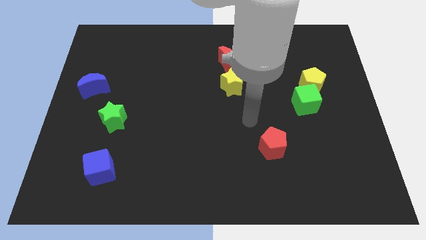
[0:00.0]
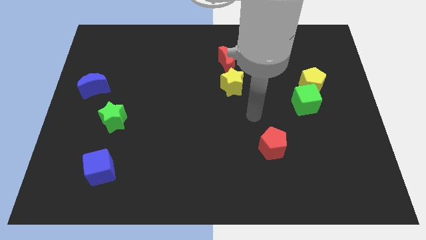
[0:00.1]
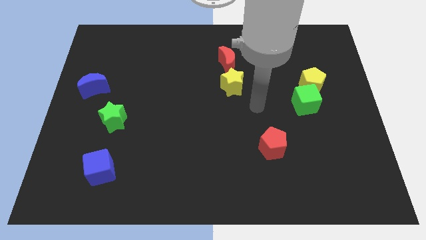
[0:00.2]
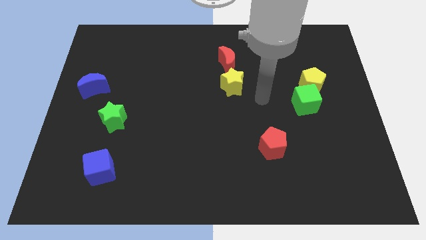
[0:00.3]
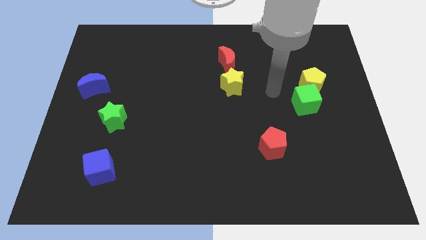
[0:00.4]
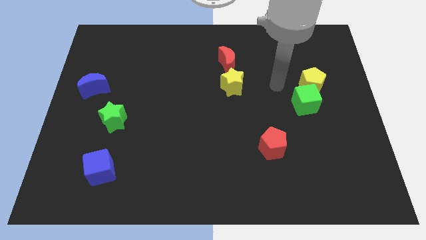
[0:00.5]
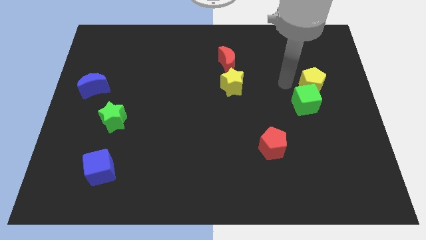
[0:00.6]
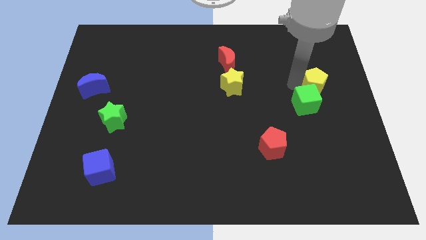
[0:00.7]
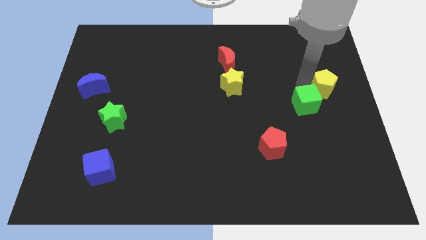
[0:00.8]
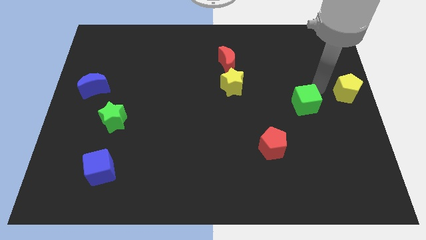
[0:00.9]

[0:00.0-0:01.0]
move the green cube away from the yellow pentagon

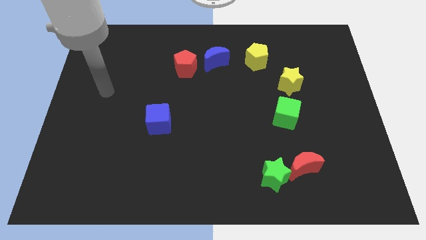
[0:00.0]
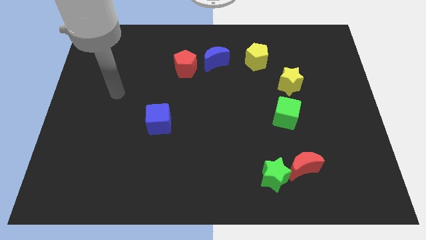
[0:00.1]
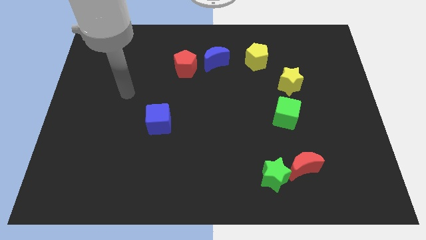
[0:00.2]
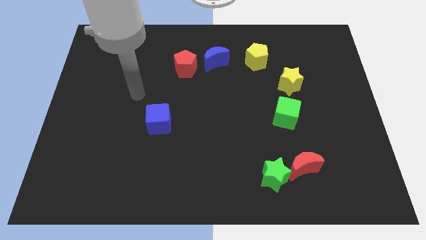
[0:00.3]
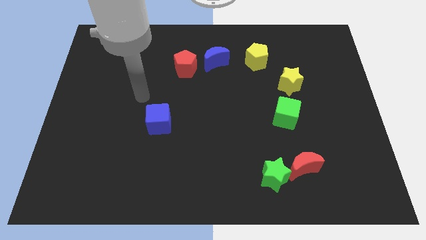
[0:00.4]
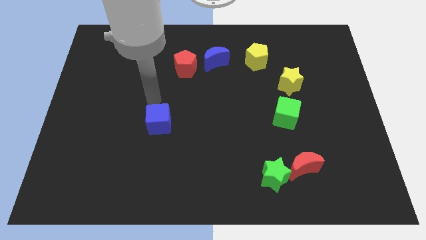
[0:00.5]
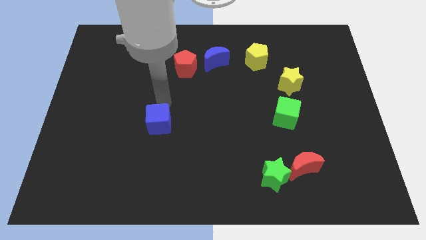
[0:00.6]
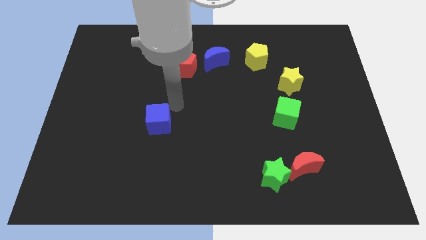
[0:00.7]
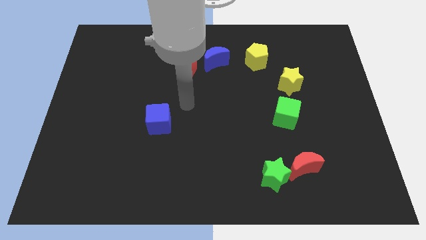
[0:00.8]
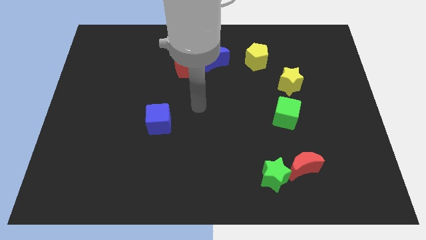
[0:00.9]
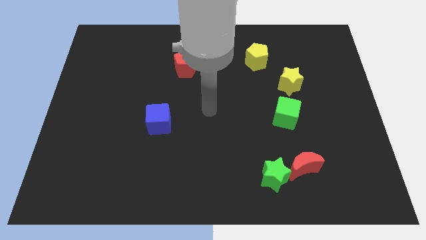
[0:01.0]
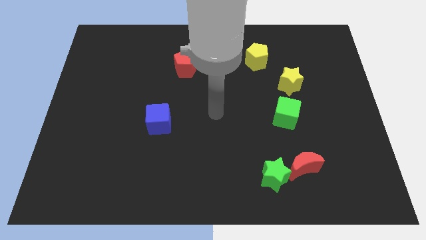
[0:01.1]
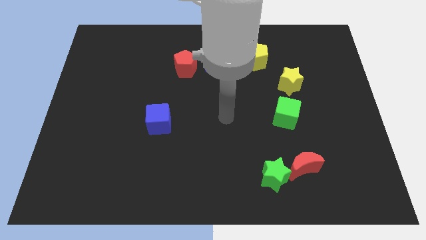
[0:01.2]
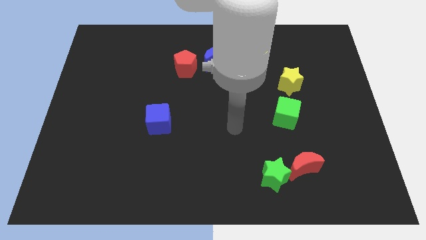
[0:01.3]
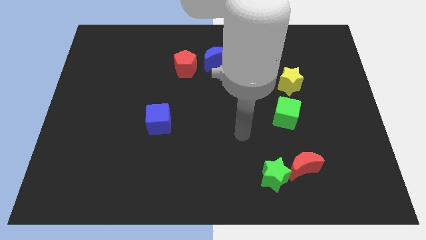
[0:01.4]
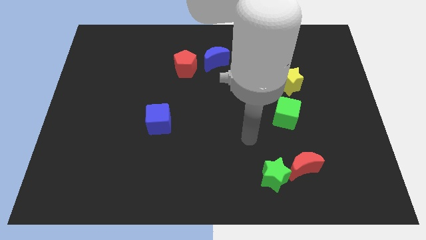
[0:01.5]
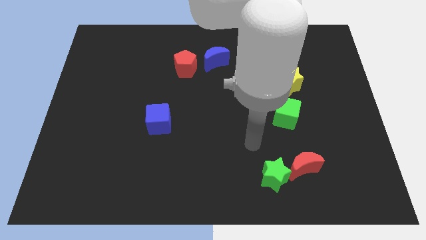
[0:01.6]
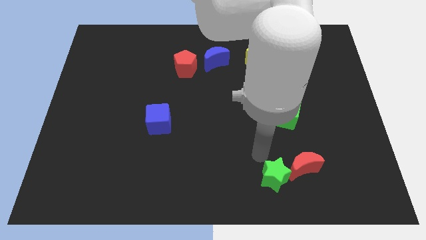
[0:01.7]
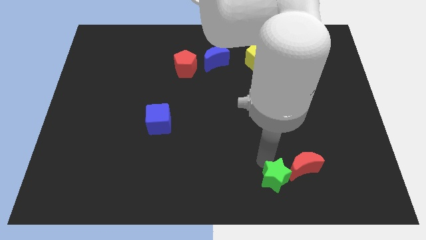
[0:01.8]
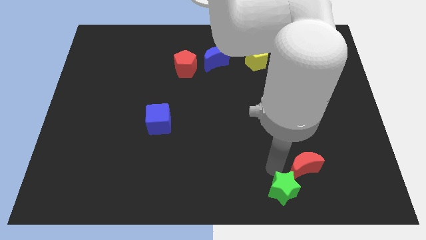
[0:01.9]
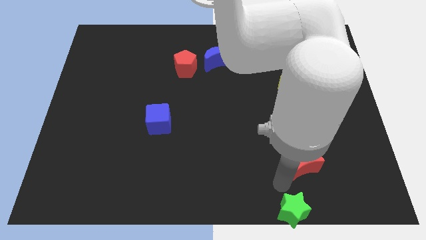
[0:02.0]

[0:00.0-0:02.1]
move the red moon away from the green star

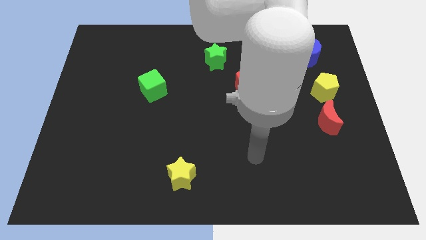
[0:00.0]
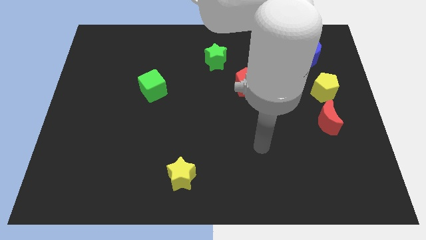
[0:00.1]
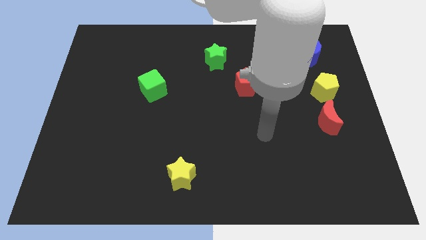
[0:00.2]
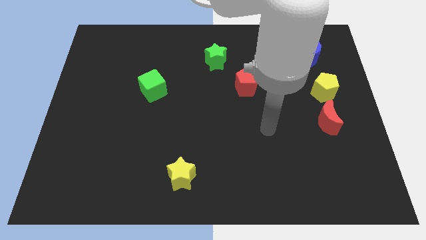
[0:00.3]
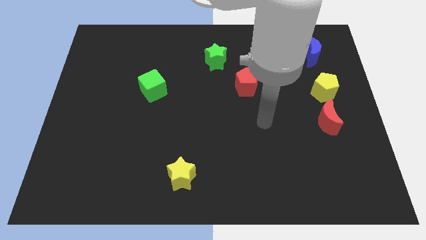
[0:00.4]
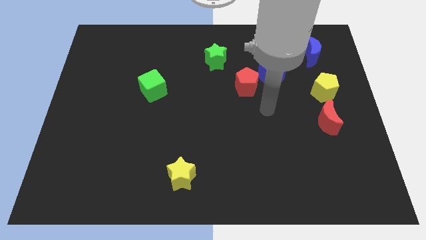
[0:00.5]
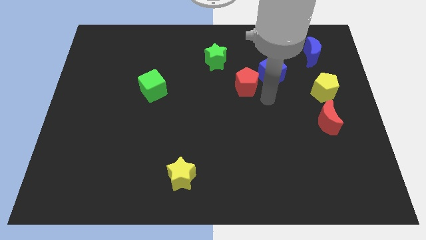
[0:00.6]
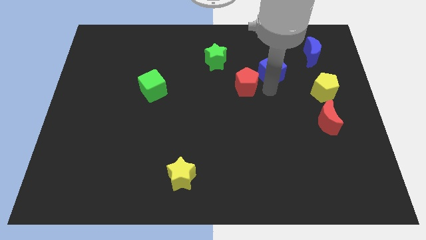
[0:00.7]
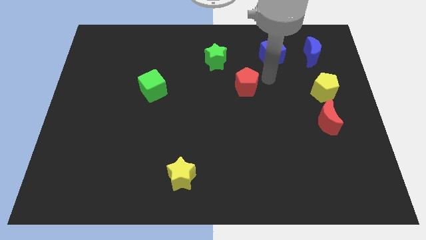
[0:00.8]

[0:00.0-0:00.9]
separate the red pentagon from the blue cube

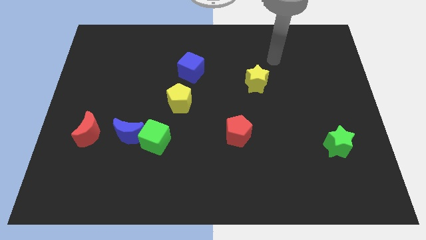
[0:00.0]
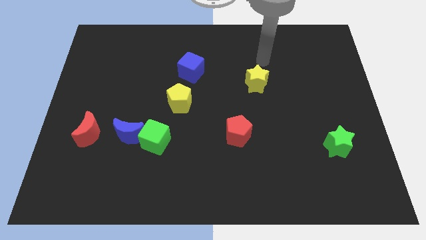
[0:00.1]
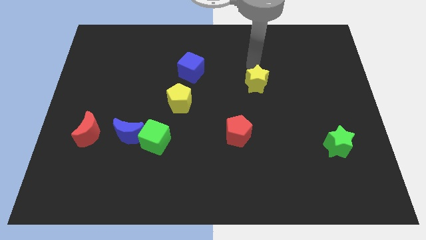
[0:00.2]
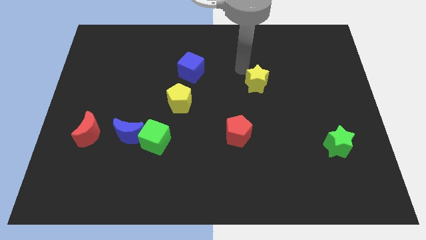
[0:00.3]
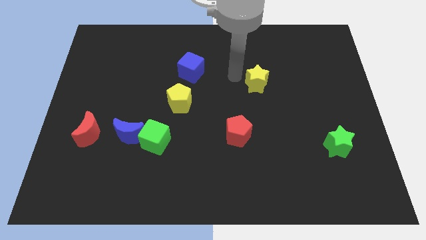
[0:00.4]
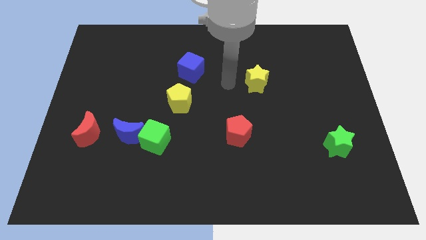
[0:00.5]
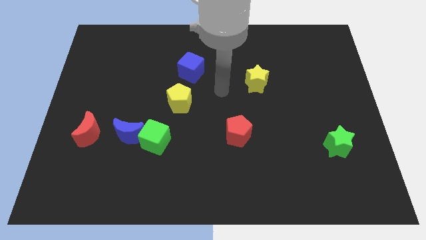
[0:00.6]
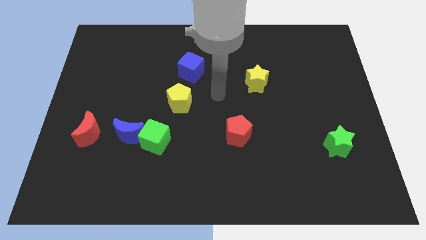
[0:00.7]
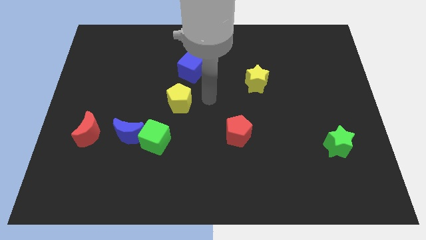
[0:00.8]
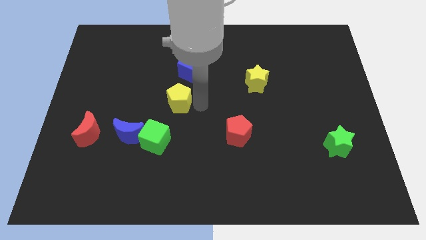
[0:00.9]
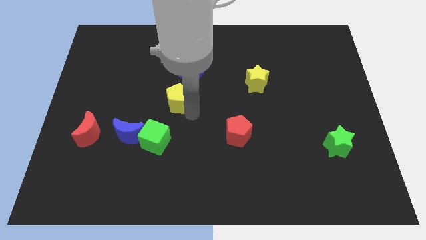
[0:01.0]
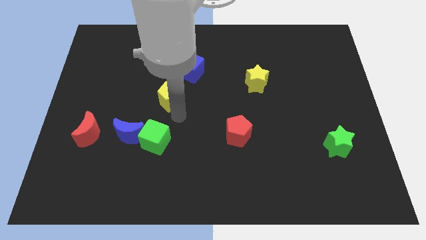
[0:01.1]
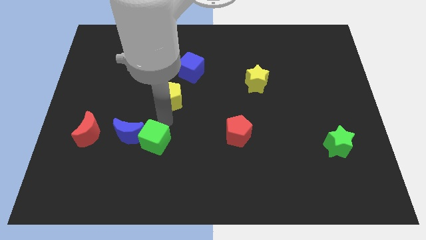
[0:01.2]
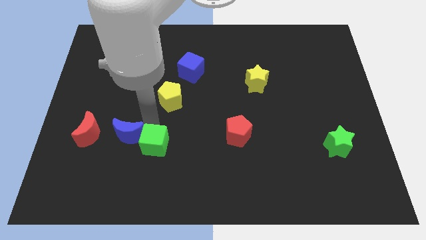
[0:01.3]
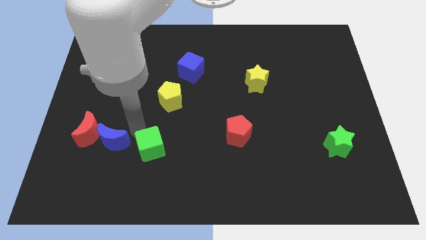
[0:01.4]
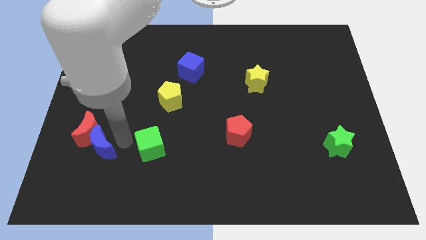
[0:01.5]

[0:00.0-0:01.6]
separate the green cube from the blue moon

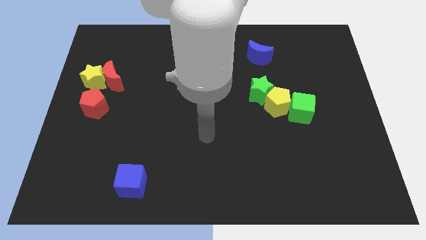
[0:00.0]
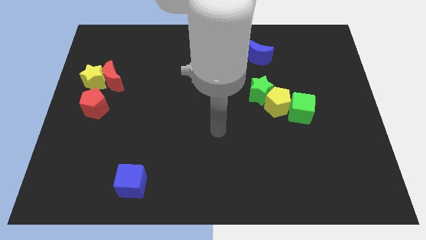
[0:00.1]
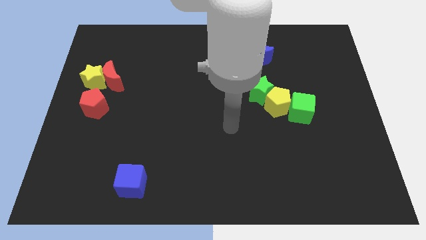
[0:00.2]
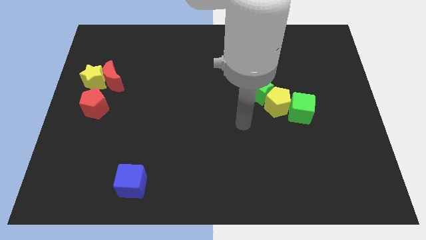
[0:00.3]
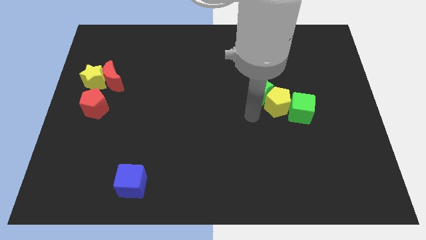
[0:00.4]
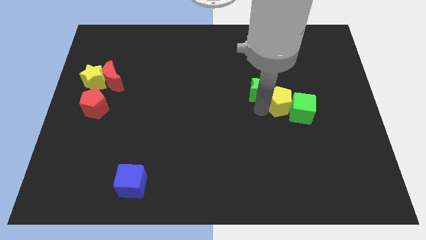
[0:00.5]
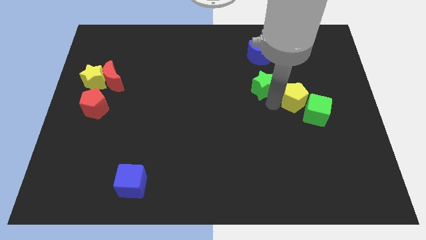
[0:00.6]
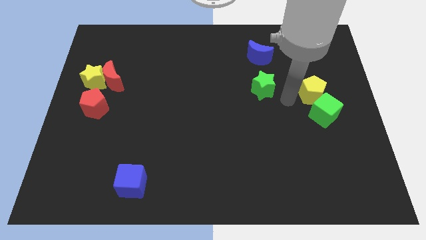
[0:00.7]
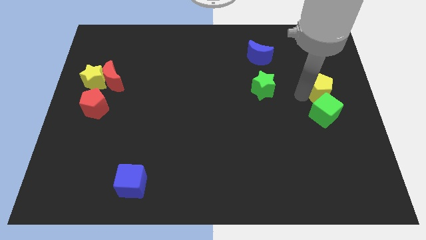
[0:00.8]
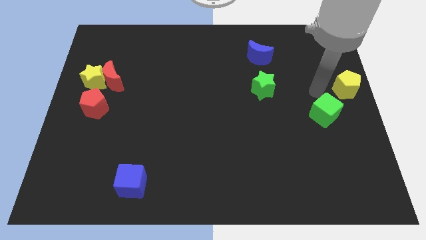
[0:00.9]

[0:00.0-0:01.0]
pull the green cube apart from the yellow pentagon

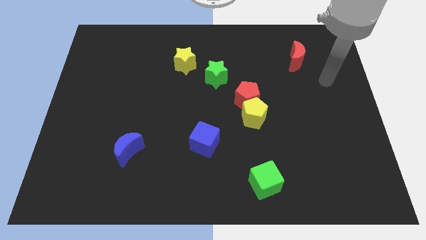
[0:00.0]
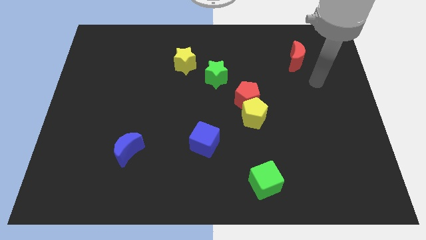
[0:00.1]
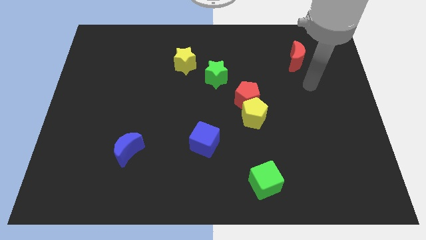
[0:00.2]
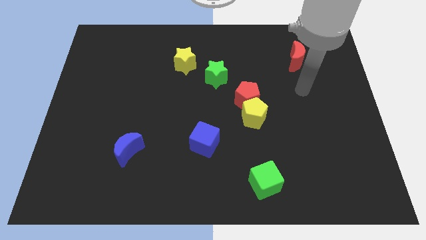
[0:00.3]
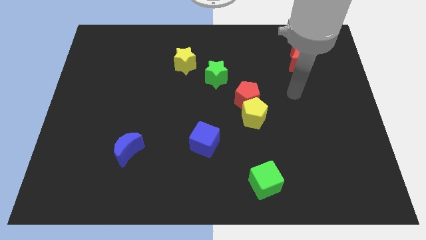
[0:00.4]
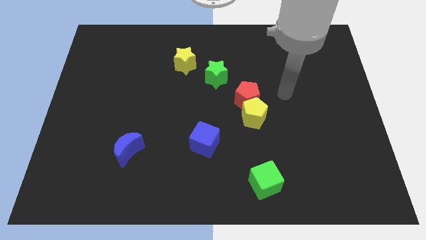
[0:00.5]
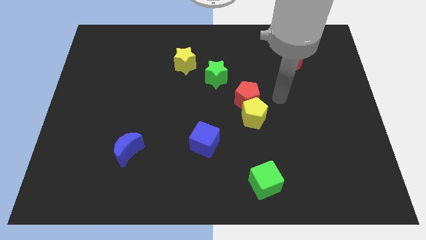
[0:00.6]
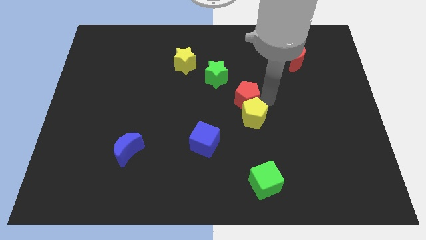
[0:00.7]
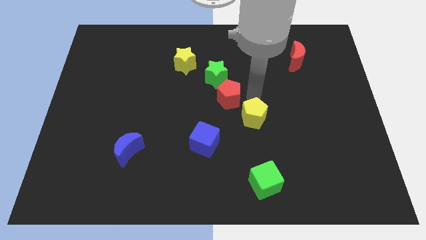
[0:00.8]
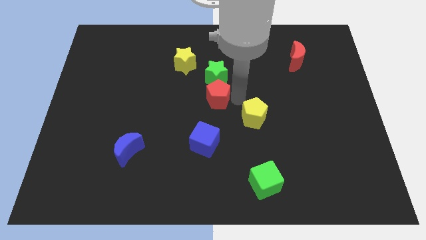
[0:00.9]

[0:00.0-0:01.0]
separate the yellow pentagon from the red pentagon

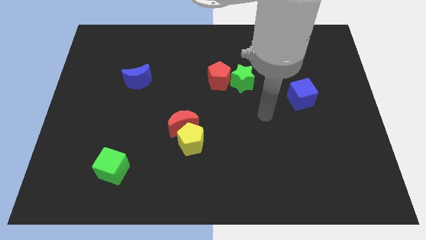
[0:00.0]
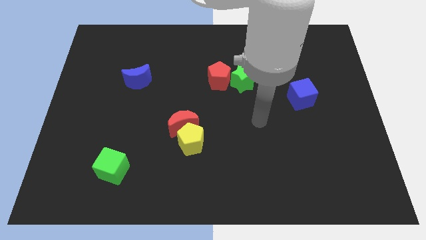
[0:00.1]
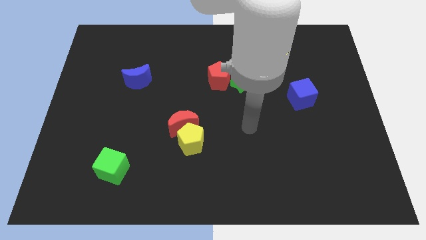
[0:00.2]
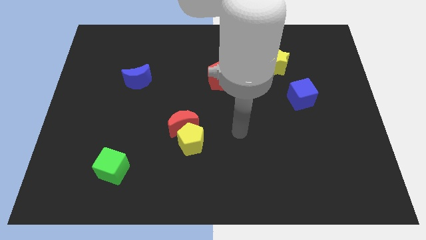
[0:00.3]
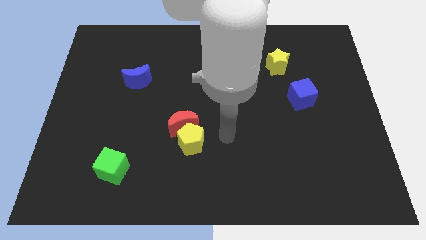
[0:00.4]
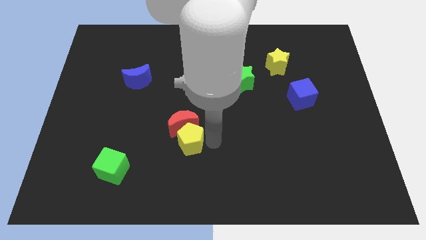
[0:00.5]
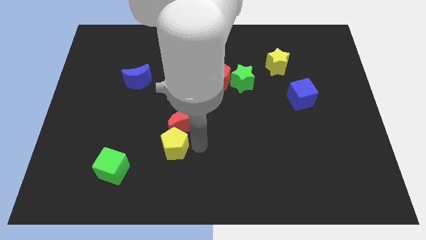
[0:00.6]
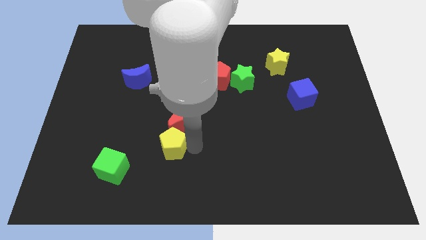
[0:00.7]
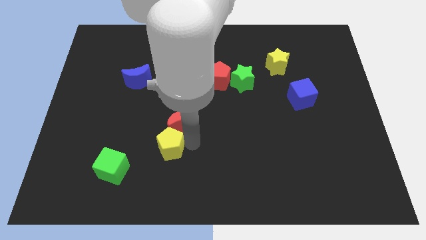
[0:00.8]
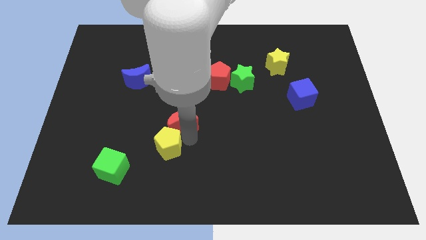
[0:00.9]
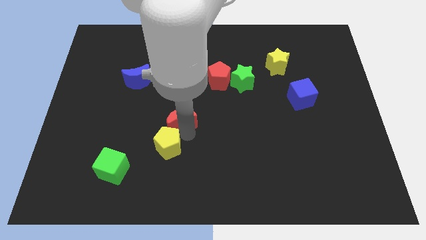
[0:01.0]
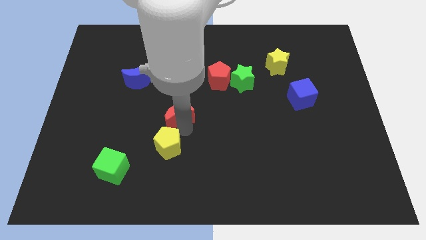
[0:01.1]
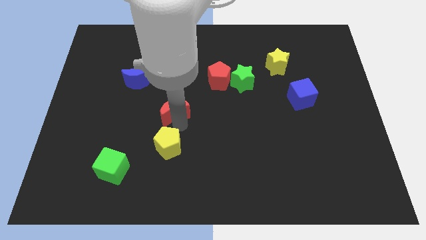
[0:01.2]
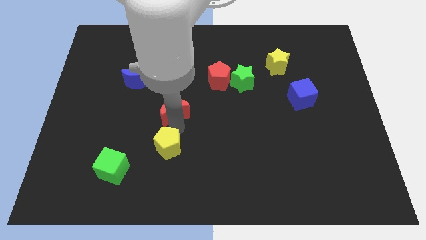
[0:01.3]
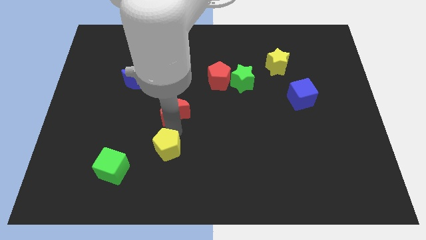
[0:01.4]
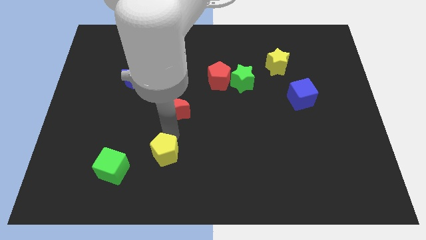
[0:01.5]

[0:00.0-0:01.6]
pull the red moon apart from the yellow pentagon
